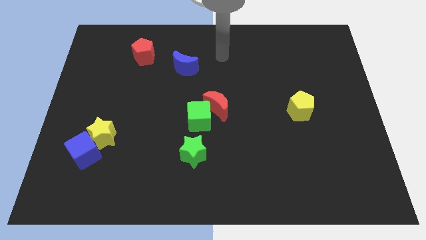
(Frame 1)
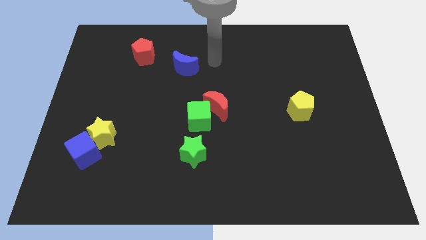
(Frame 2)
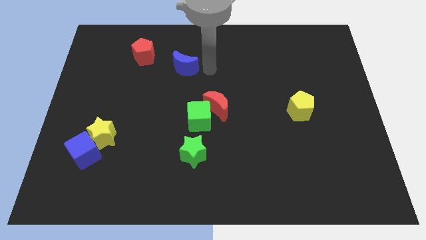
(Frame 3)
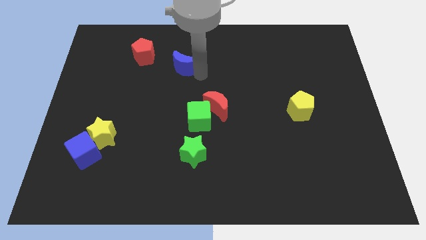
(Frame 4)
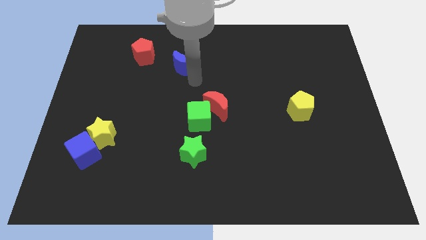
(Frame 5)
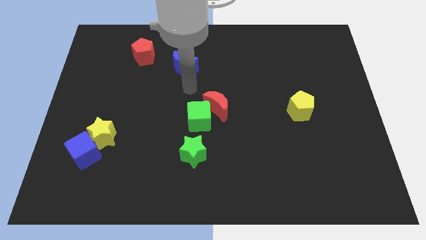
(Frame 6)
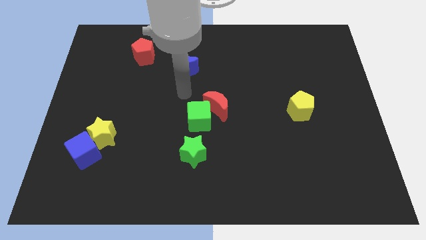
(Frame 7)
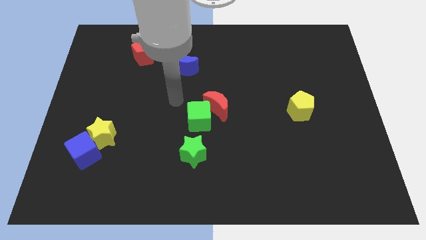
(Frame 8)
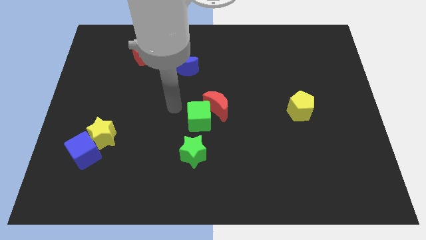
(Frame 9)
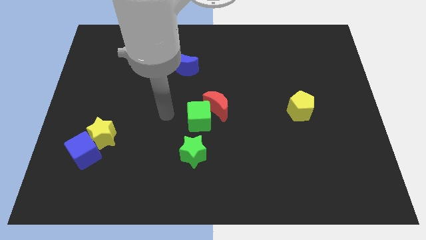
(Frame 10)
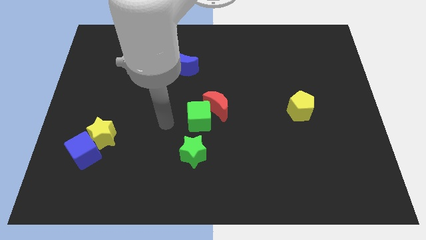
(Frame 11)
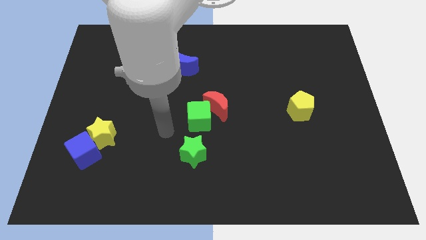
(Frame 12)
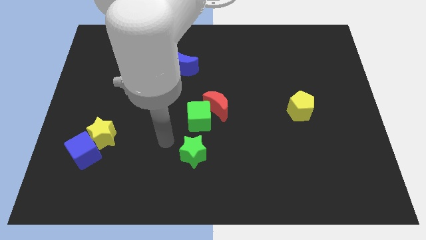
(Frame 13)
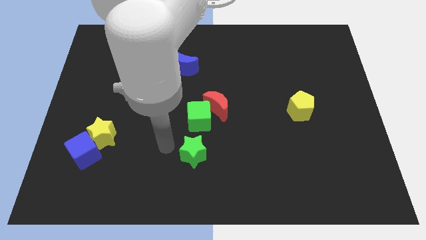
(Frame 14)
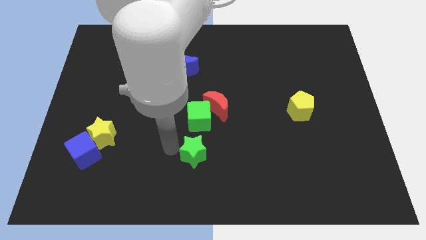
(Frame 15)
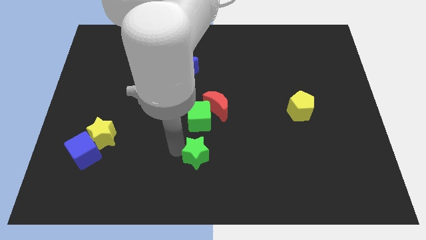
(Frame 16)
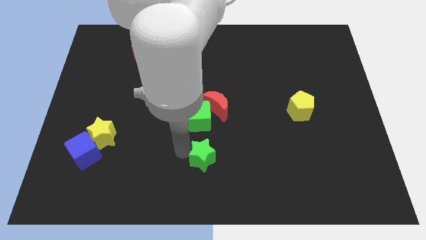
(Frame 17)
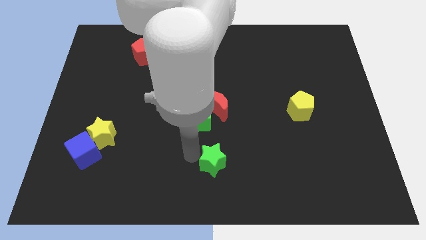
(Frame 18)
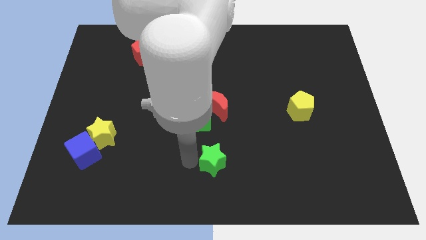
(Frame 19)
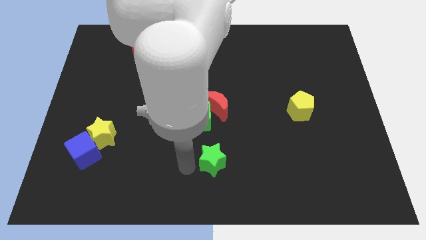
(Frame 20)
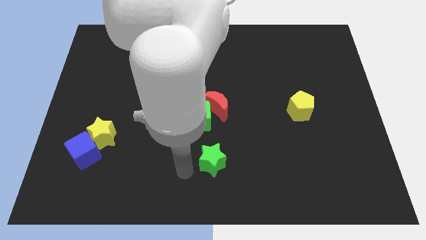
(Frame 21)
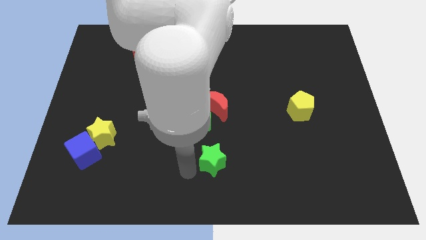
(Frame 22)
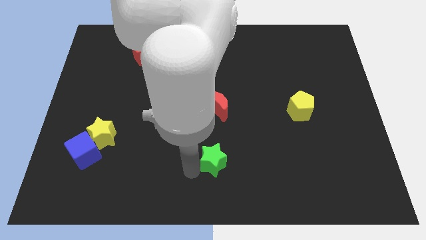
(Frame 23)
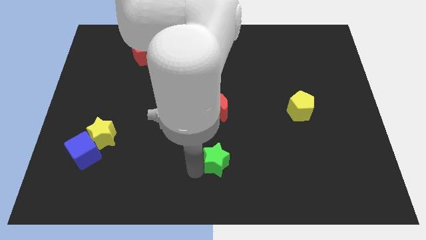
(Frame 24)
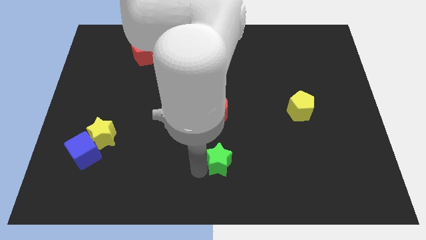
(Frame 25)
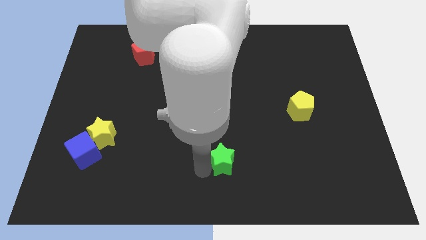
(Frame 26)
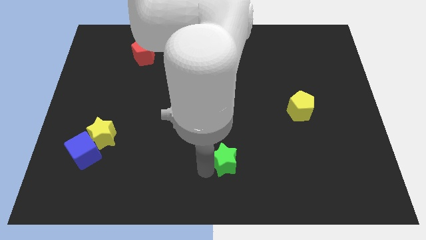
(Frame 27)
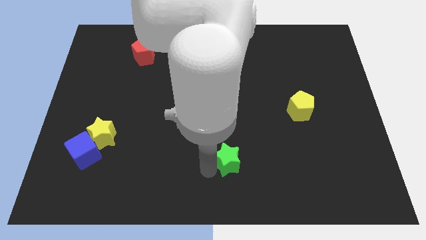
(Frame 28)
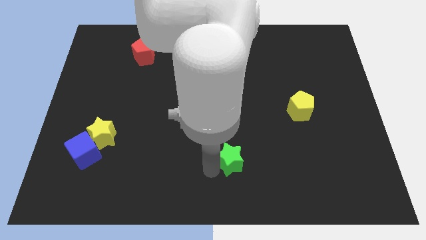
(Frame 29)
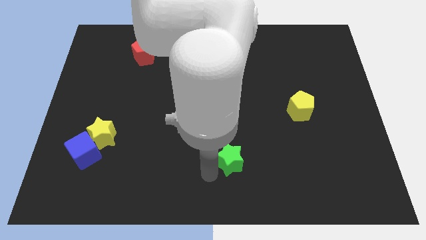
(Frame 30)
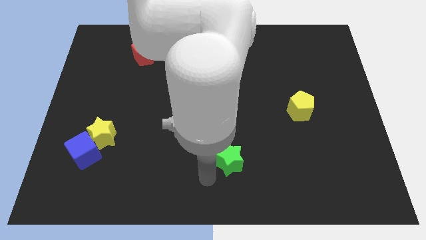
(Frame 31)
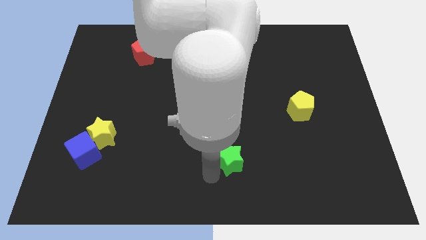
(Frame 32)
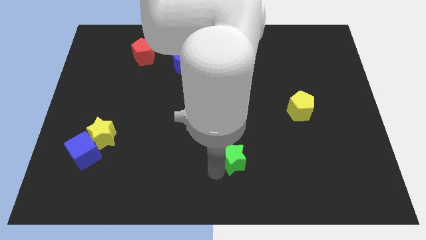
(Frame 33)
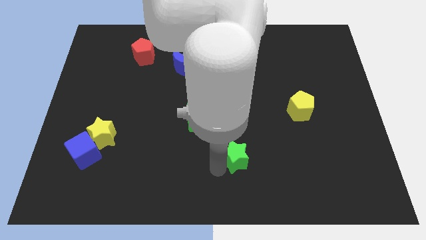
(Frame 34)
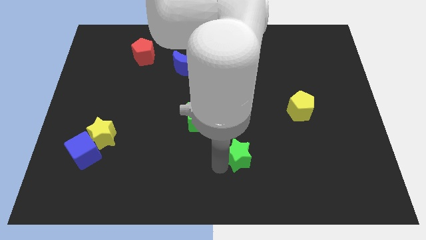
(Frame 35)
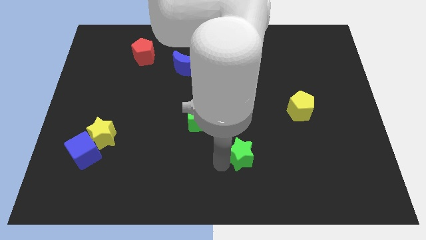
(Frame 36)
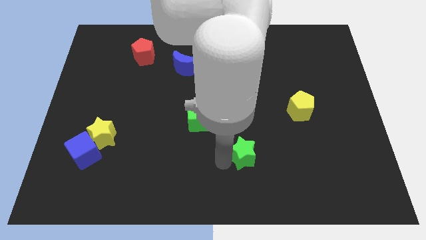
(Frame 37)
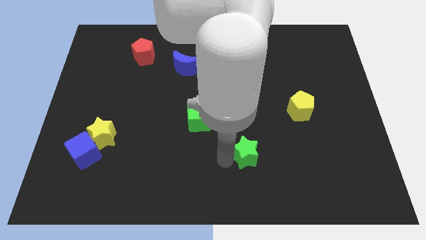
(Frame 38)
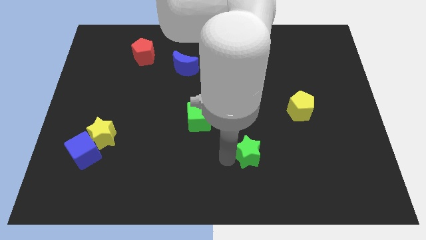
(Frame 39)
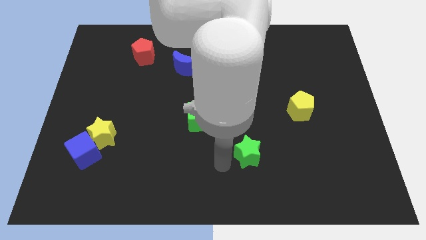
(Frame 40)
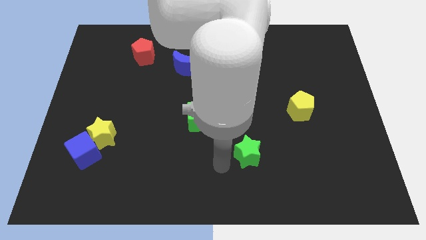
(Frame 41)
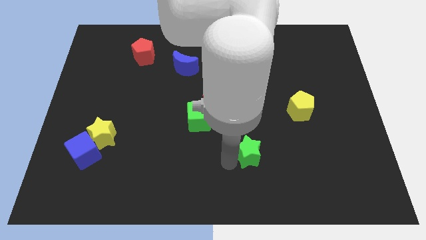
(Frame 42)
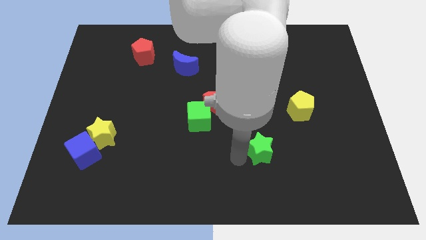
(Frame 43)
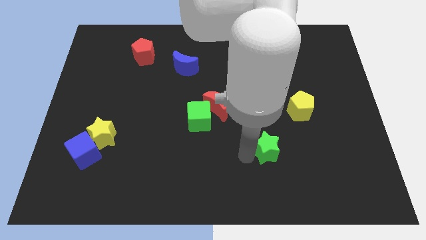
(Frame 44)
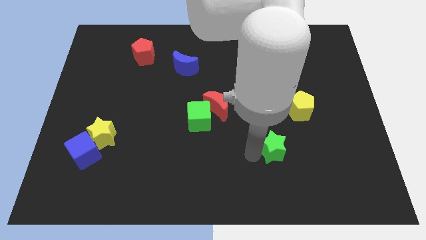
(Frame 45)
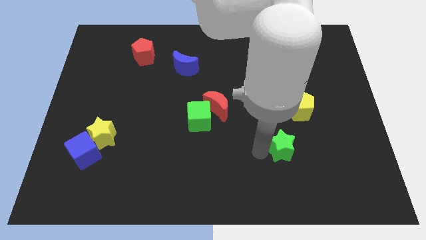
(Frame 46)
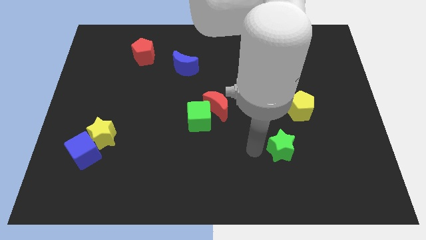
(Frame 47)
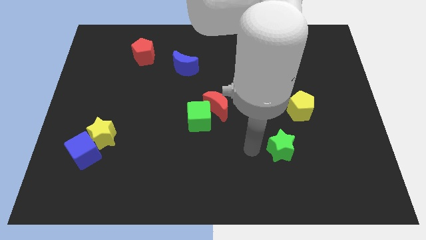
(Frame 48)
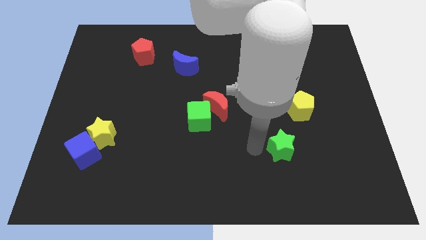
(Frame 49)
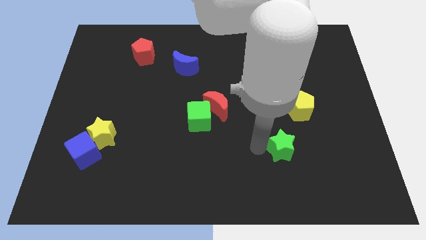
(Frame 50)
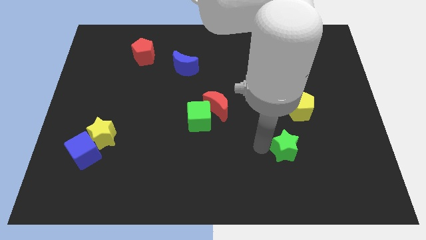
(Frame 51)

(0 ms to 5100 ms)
slide the green star to the bottom side of the yellow pentagon

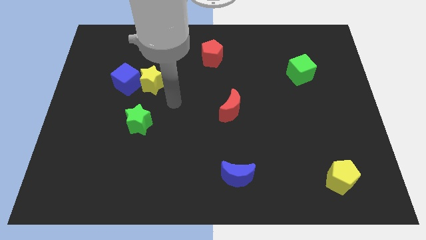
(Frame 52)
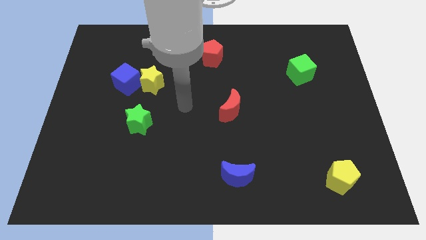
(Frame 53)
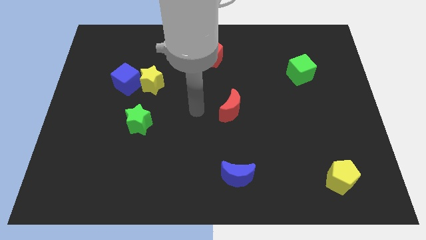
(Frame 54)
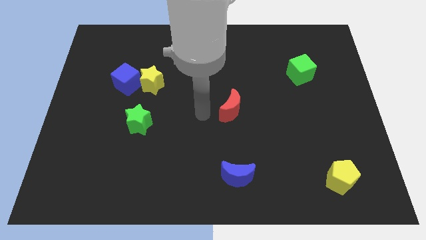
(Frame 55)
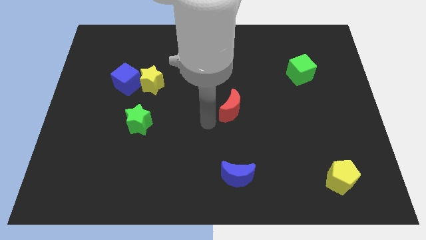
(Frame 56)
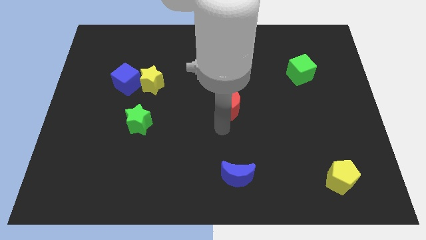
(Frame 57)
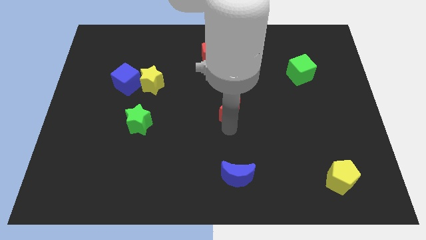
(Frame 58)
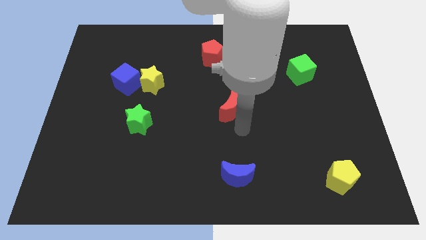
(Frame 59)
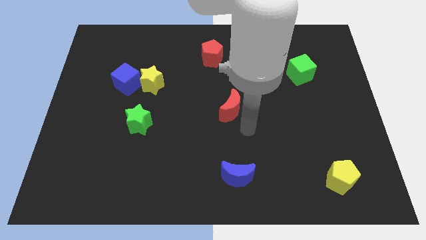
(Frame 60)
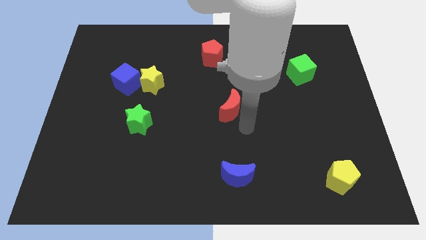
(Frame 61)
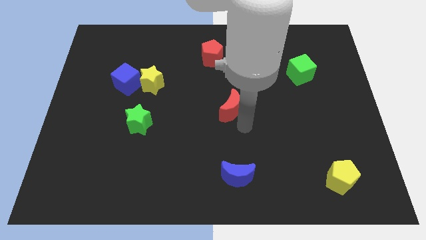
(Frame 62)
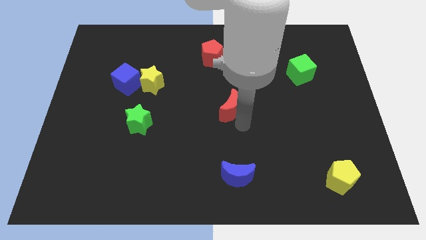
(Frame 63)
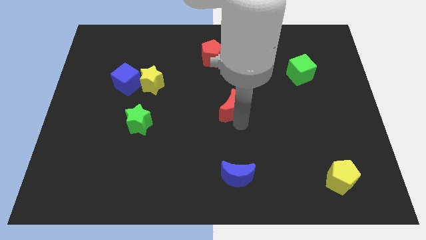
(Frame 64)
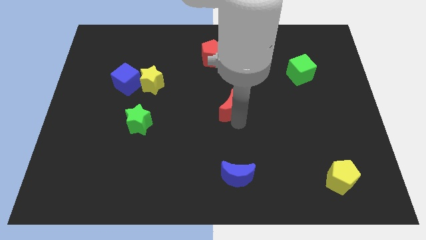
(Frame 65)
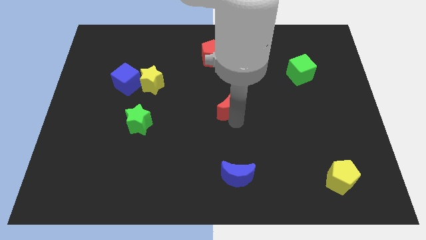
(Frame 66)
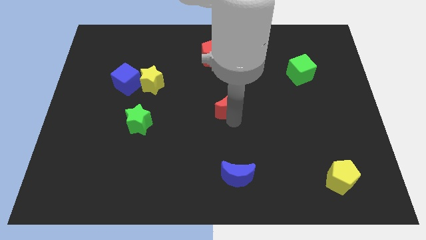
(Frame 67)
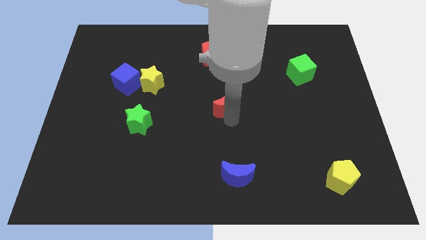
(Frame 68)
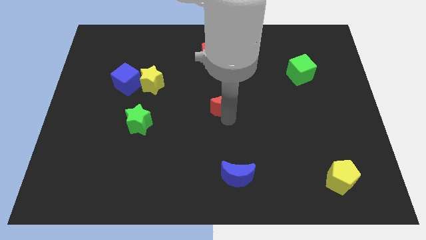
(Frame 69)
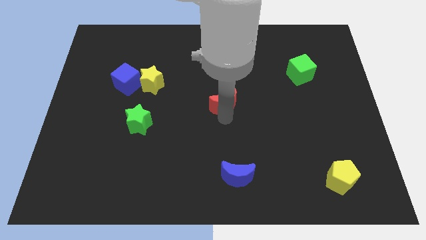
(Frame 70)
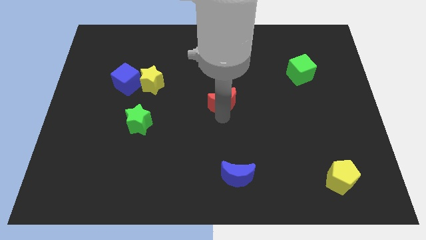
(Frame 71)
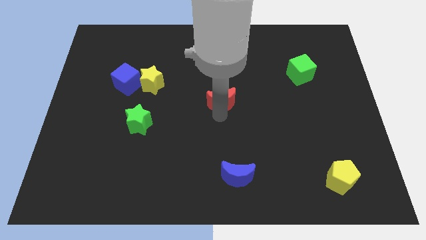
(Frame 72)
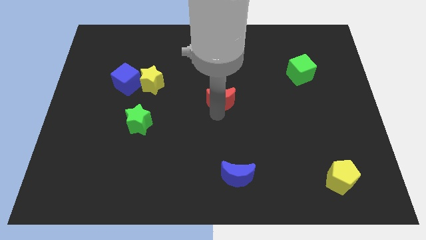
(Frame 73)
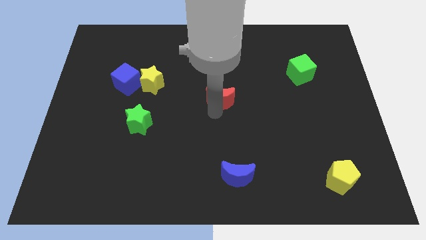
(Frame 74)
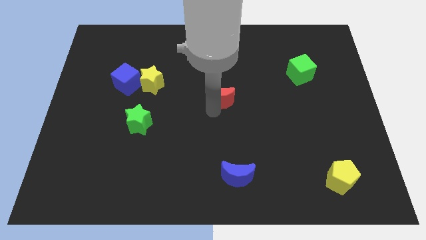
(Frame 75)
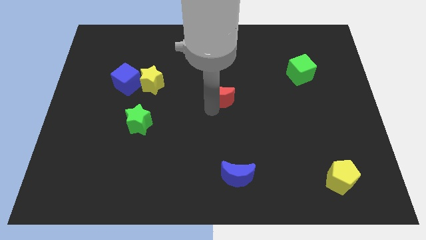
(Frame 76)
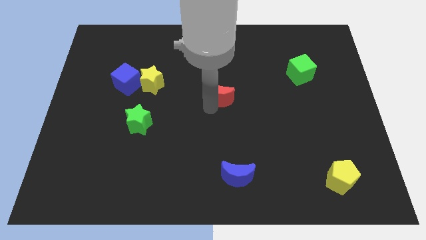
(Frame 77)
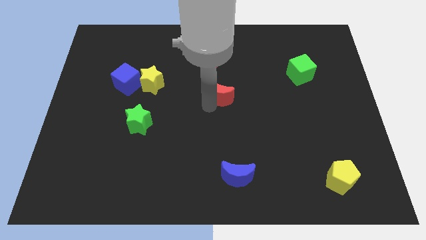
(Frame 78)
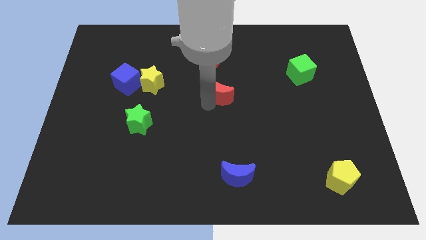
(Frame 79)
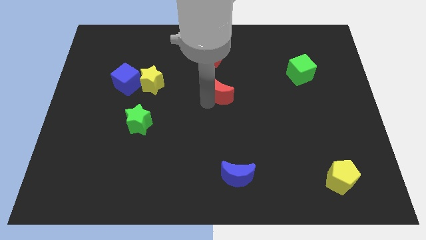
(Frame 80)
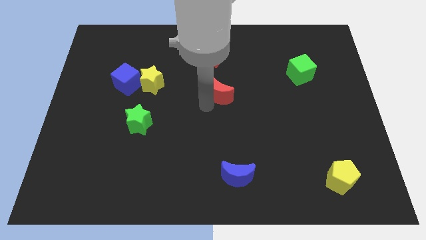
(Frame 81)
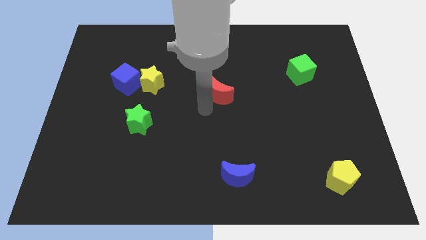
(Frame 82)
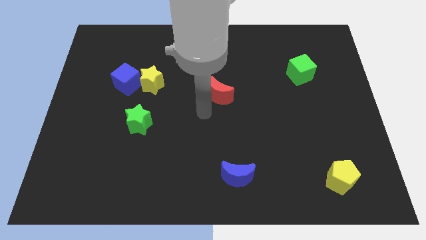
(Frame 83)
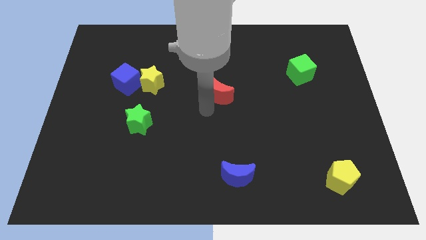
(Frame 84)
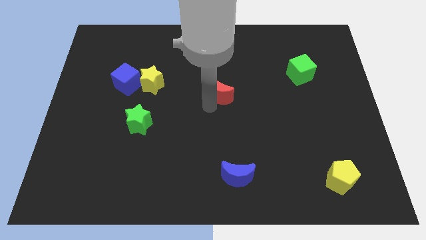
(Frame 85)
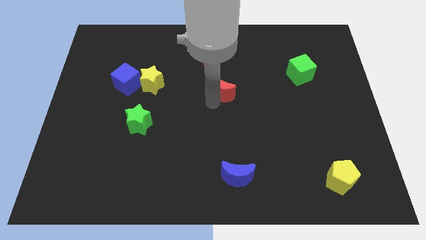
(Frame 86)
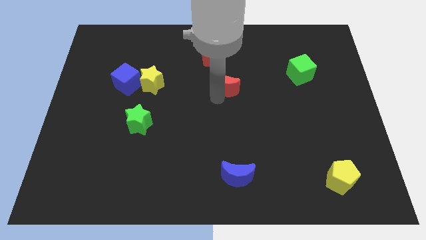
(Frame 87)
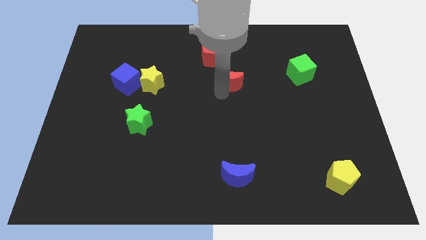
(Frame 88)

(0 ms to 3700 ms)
move the red moon to the bottom right side of the red pentagon
